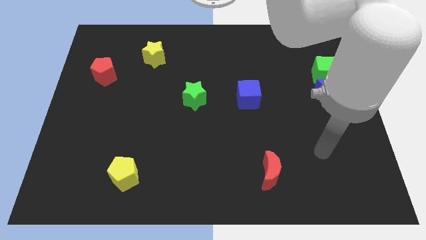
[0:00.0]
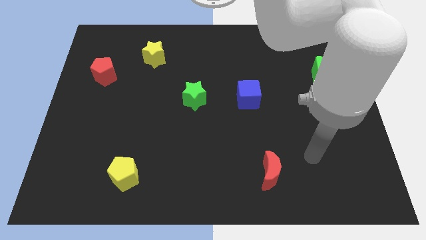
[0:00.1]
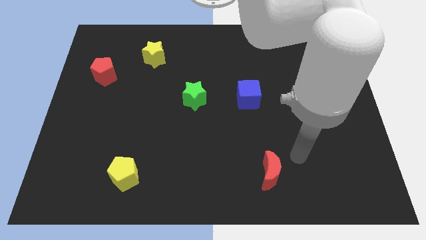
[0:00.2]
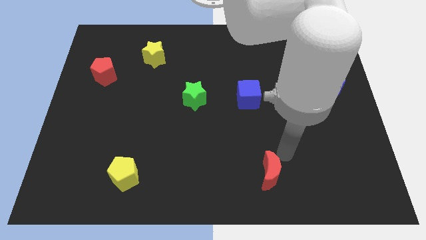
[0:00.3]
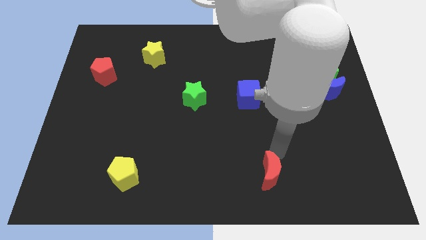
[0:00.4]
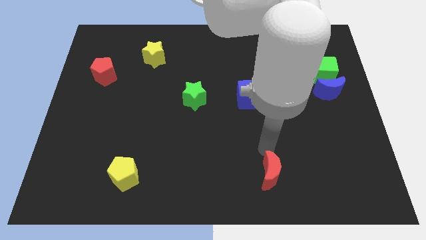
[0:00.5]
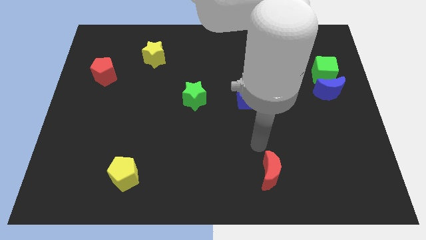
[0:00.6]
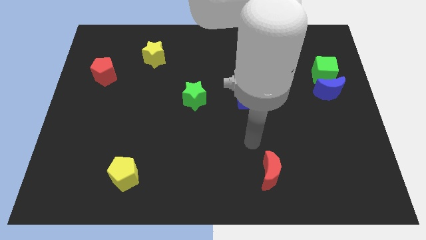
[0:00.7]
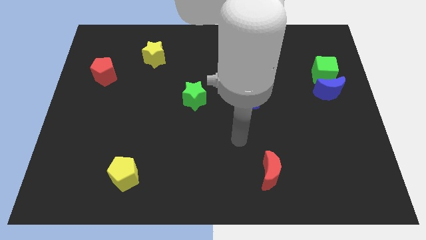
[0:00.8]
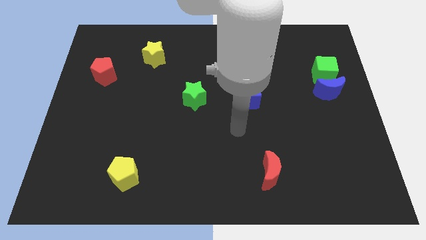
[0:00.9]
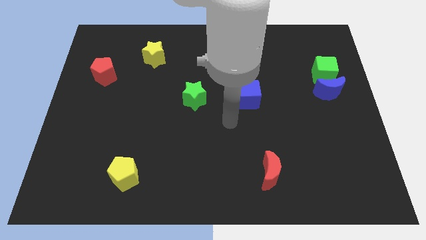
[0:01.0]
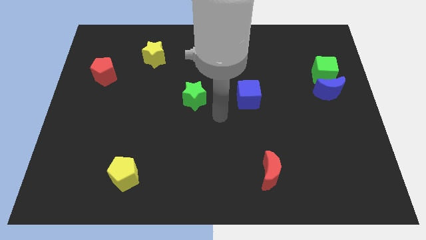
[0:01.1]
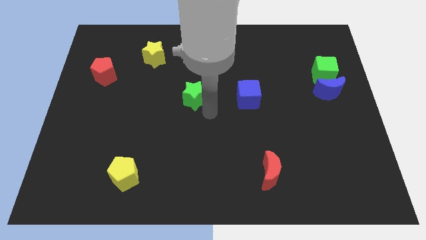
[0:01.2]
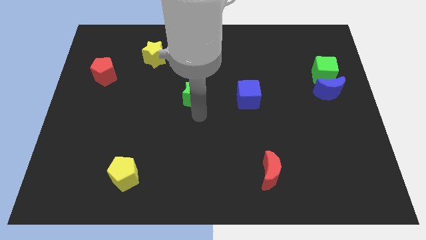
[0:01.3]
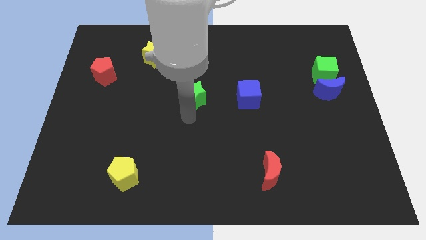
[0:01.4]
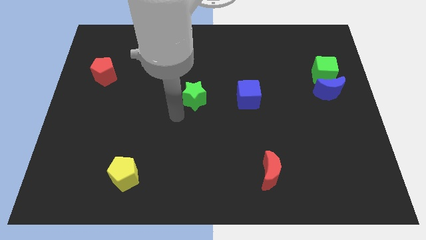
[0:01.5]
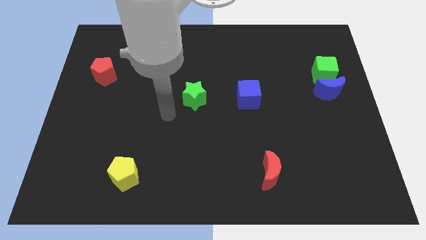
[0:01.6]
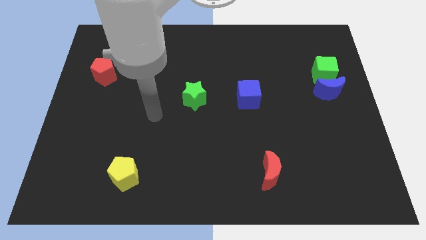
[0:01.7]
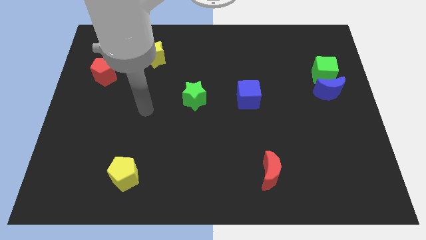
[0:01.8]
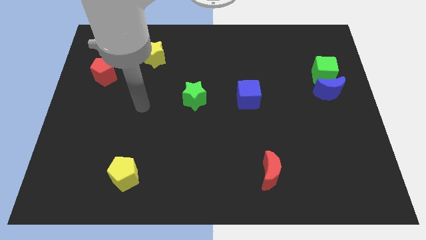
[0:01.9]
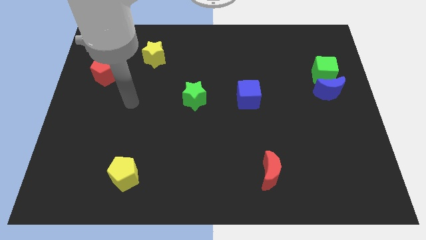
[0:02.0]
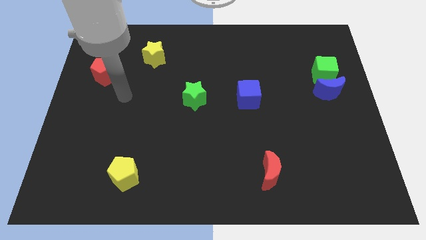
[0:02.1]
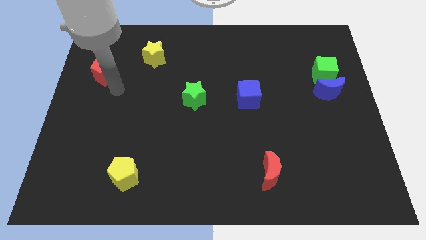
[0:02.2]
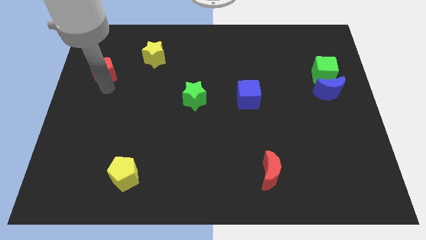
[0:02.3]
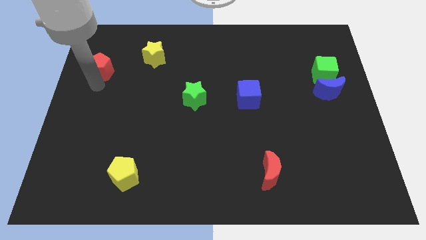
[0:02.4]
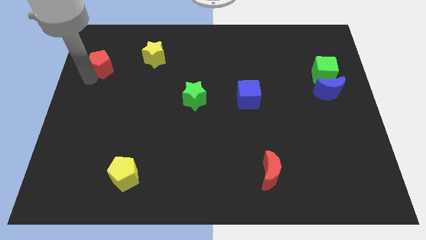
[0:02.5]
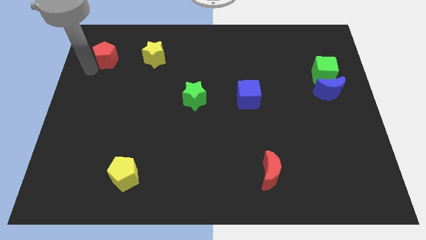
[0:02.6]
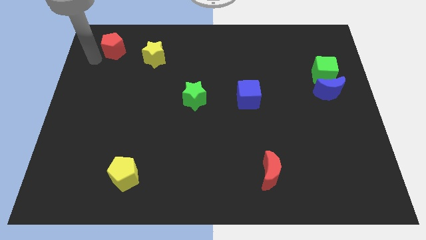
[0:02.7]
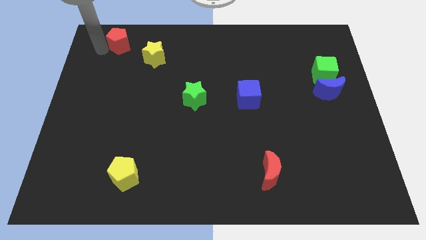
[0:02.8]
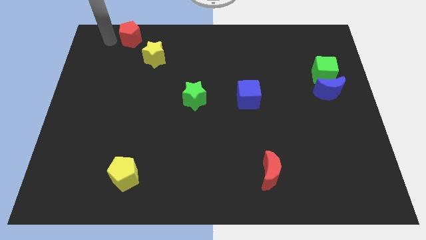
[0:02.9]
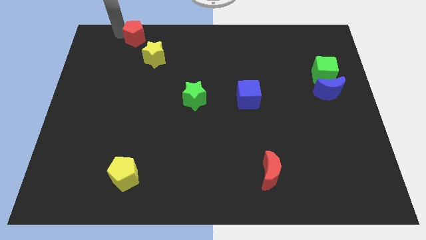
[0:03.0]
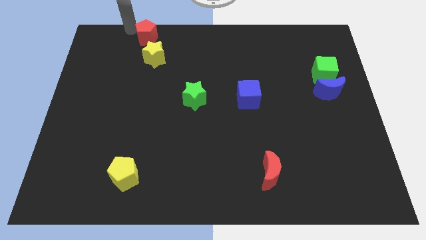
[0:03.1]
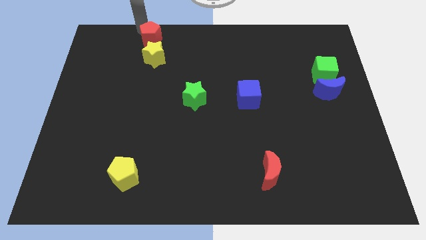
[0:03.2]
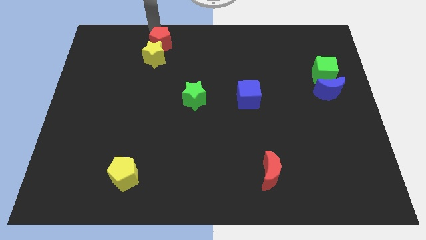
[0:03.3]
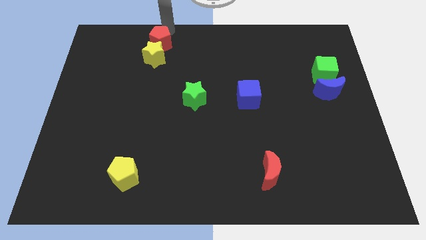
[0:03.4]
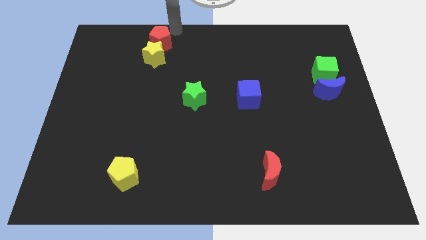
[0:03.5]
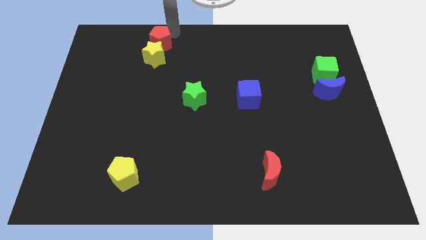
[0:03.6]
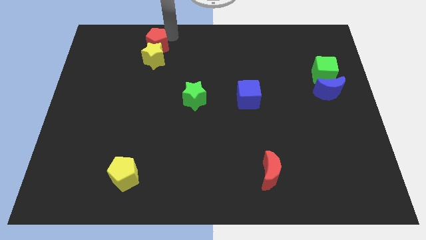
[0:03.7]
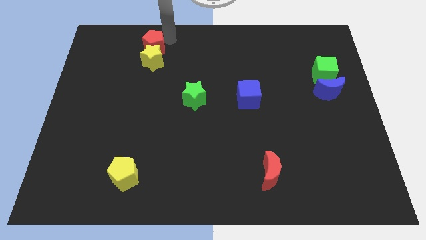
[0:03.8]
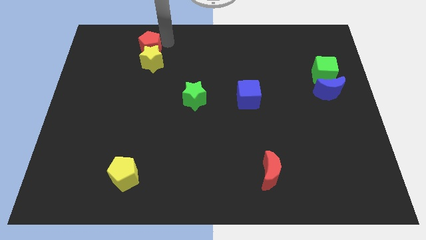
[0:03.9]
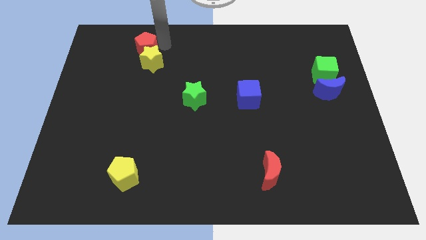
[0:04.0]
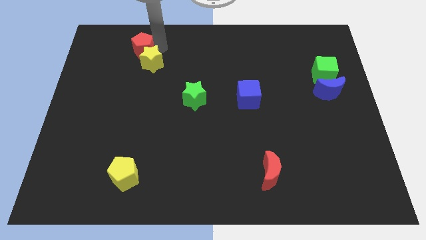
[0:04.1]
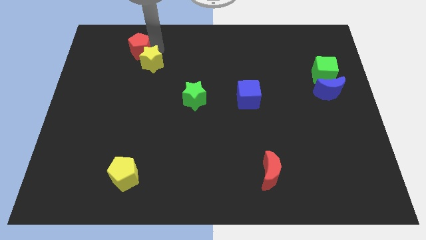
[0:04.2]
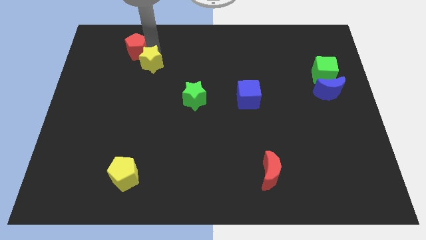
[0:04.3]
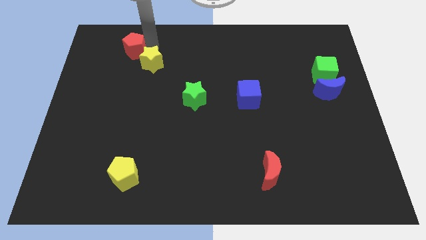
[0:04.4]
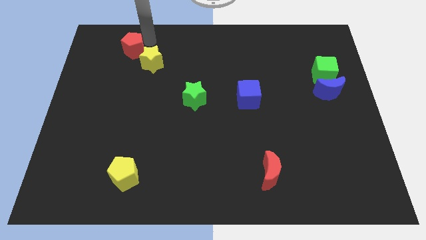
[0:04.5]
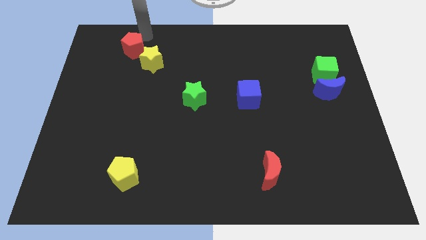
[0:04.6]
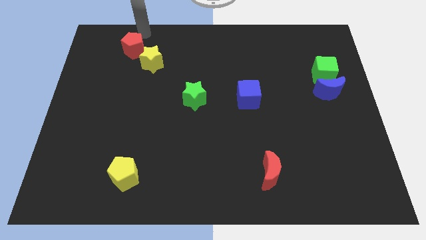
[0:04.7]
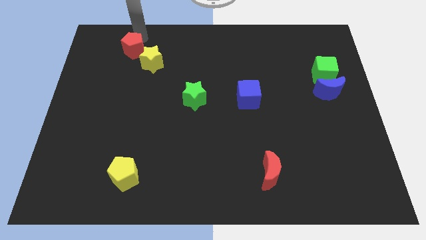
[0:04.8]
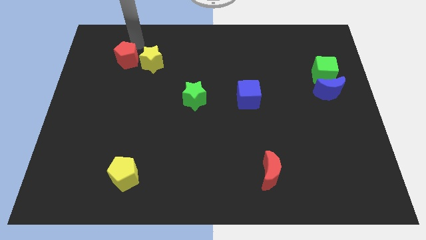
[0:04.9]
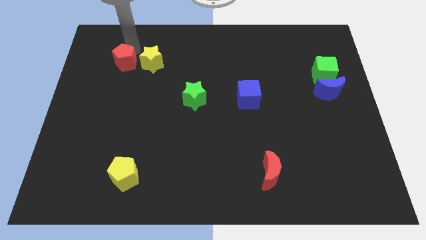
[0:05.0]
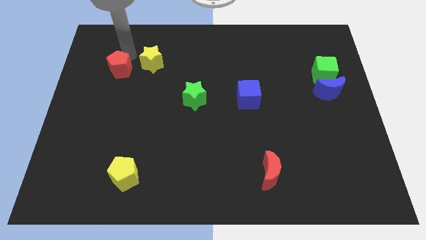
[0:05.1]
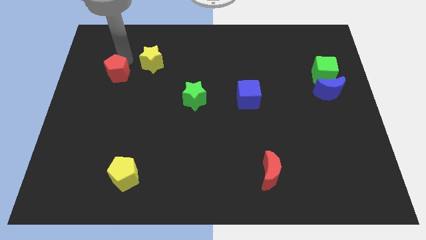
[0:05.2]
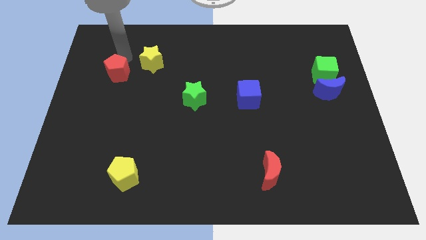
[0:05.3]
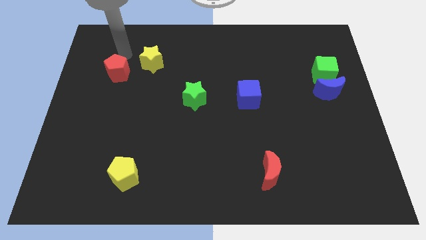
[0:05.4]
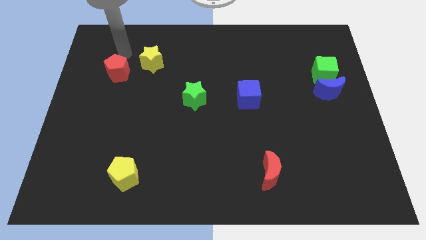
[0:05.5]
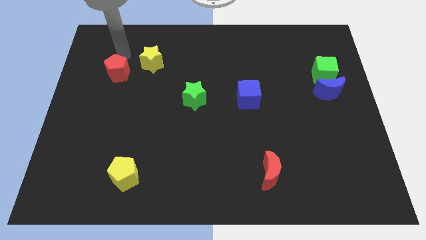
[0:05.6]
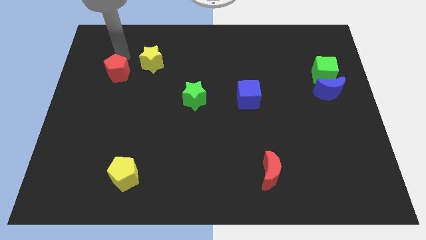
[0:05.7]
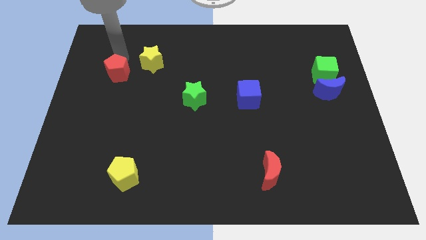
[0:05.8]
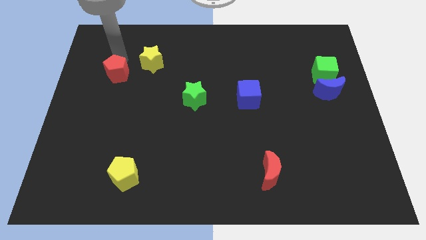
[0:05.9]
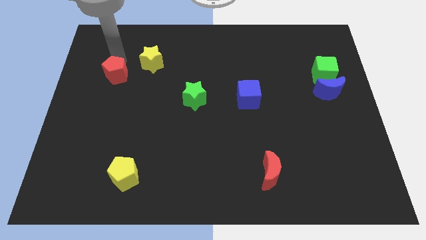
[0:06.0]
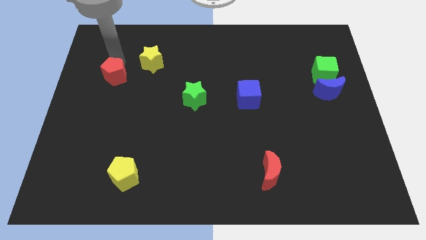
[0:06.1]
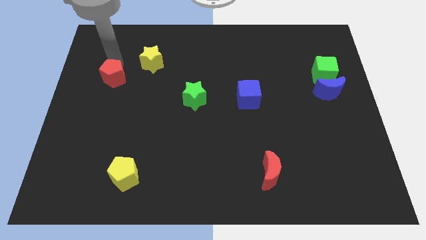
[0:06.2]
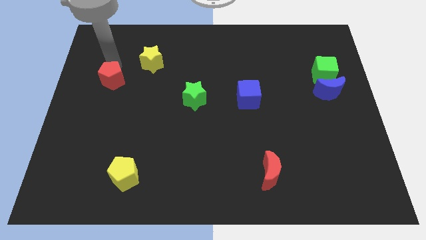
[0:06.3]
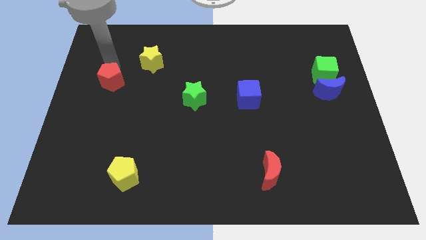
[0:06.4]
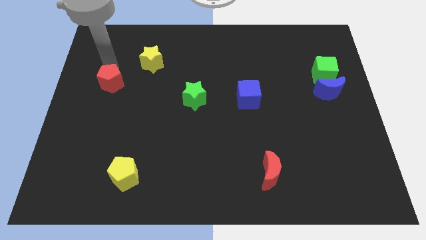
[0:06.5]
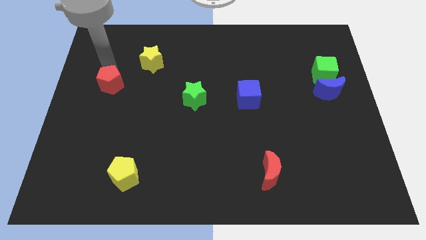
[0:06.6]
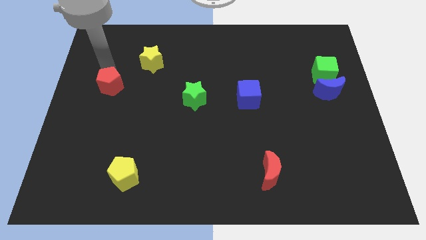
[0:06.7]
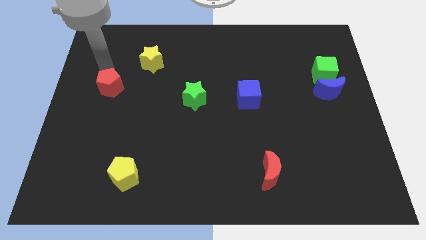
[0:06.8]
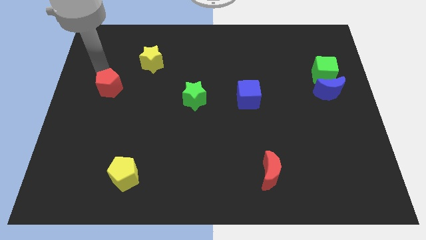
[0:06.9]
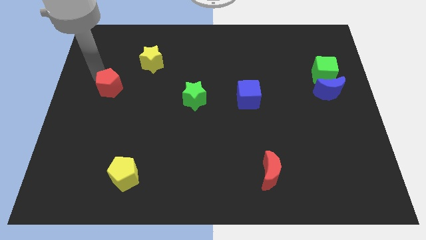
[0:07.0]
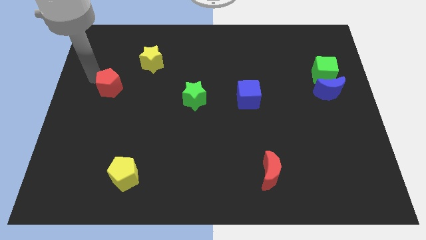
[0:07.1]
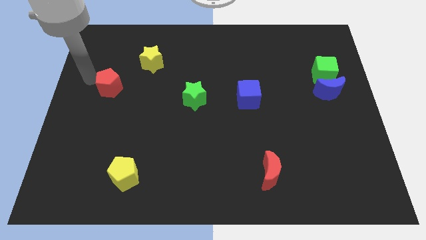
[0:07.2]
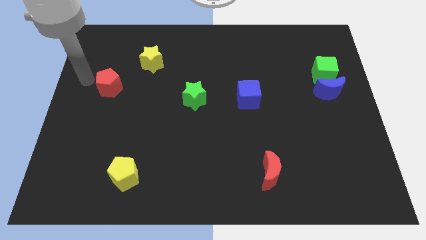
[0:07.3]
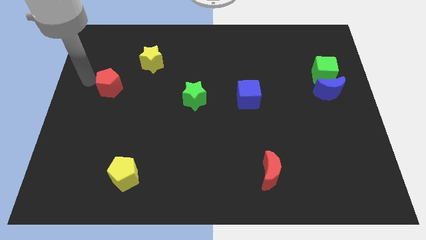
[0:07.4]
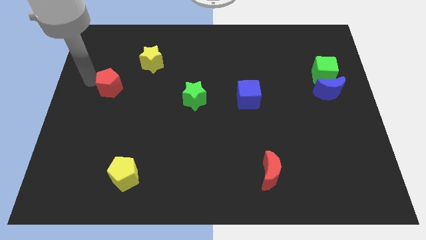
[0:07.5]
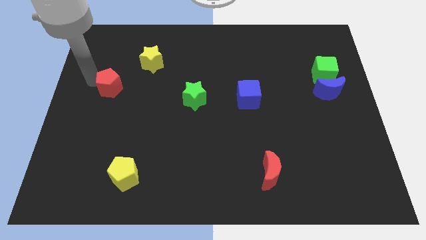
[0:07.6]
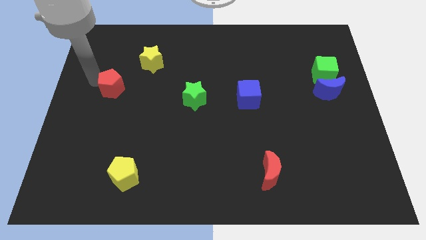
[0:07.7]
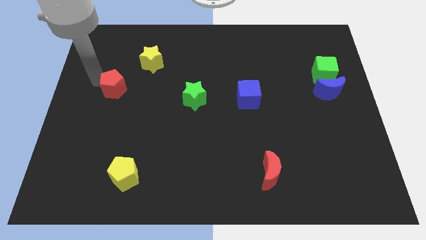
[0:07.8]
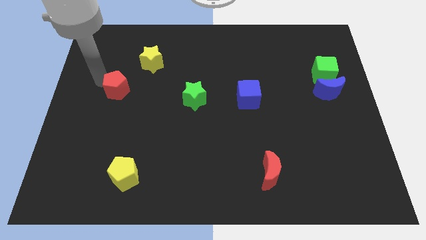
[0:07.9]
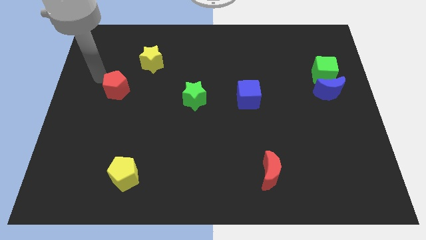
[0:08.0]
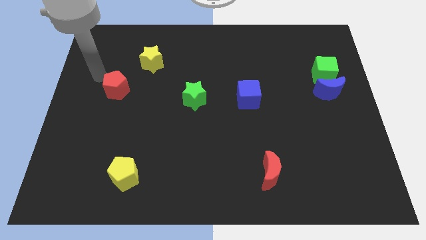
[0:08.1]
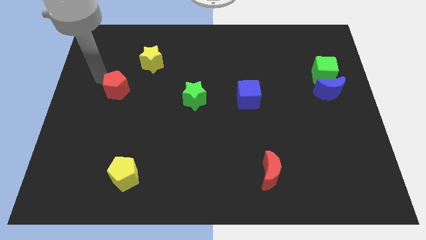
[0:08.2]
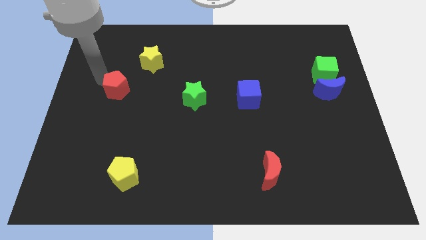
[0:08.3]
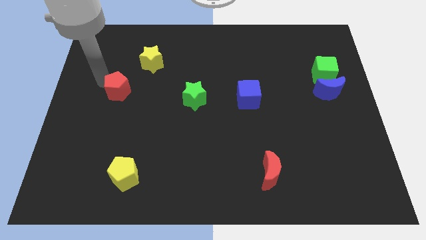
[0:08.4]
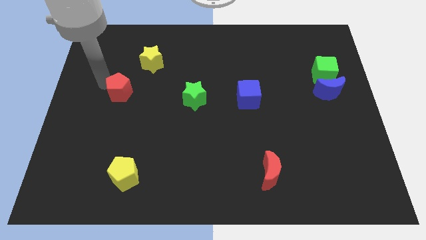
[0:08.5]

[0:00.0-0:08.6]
move the red pentagon down and then to the right a bit
